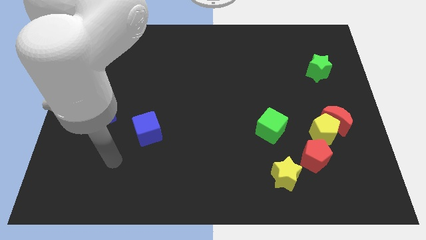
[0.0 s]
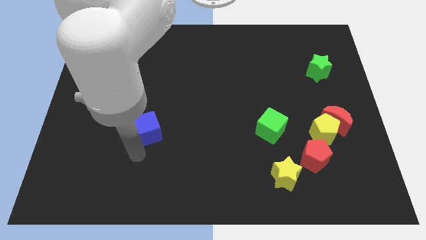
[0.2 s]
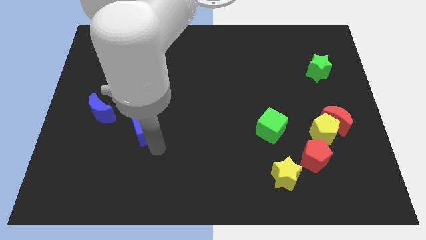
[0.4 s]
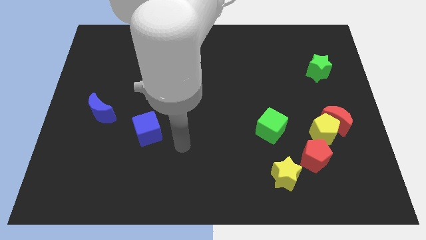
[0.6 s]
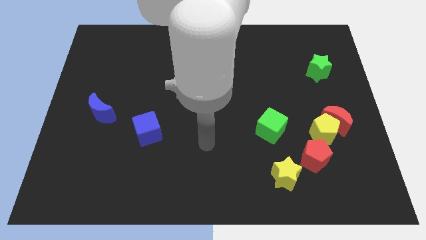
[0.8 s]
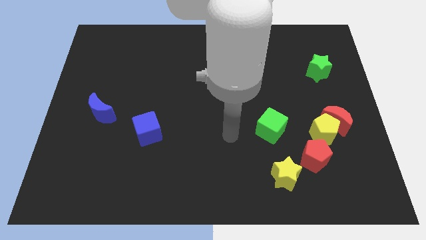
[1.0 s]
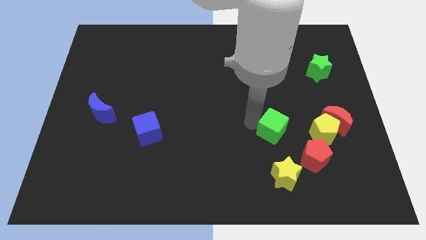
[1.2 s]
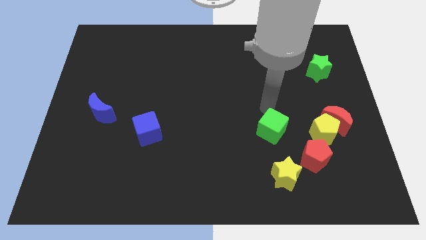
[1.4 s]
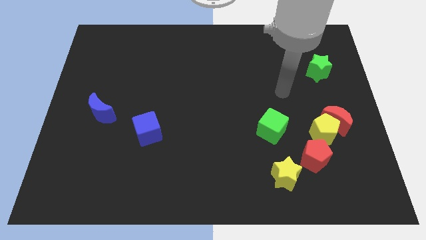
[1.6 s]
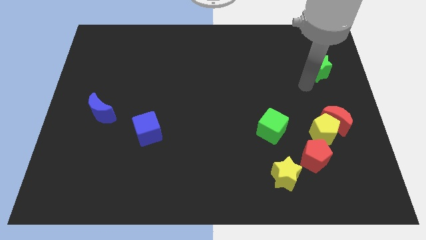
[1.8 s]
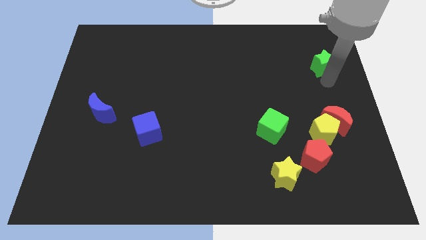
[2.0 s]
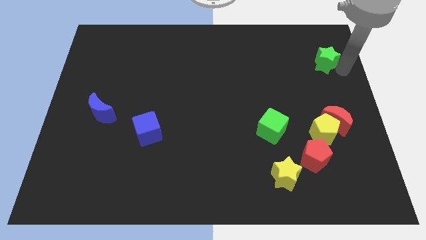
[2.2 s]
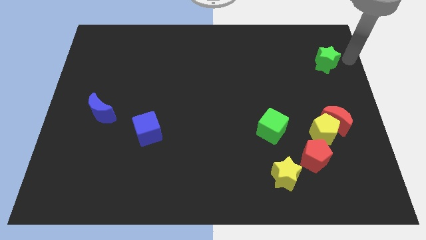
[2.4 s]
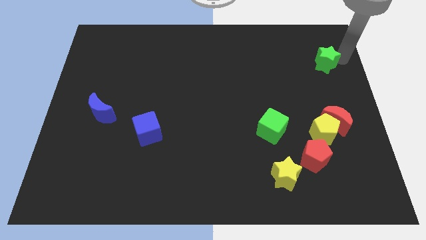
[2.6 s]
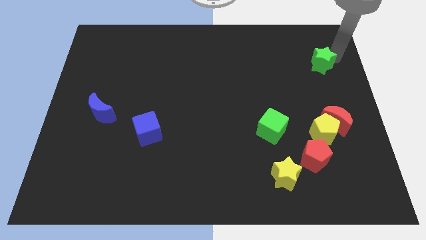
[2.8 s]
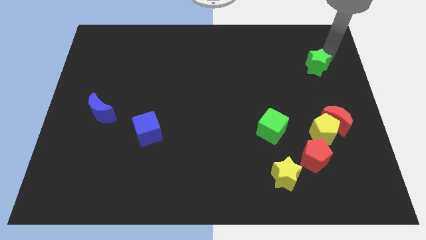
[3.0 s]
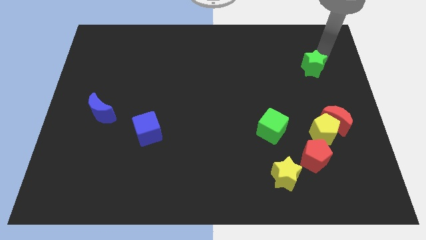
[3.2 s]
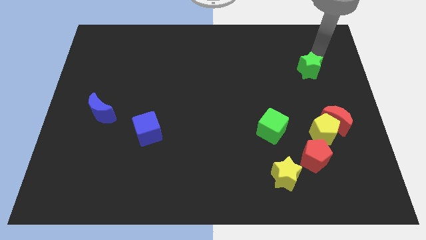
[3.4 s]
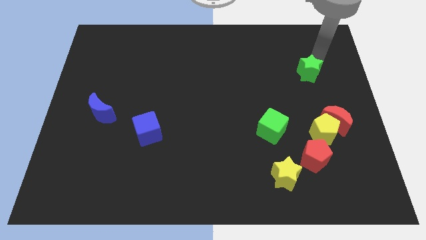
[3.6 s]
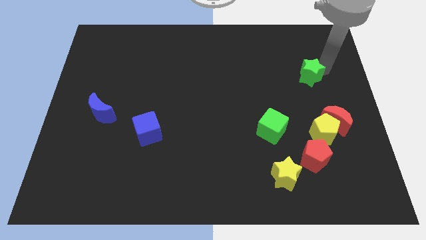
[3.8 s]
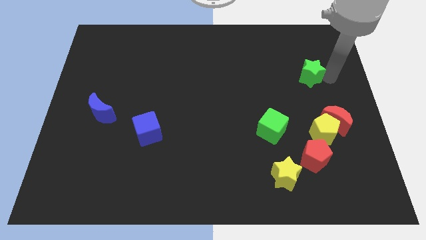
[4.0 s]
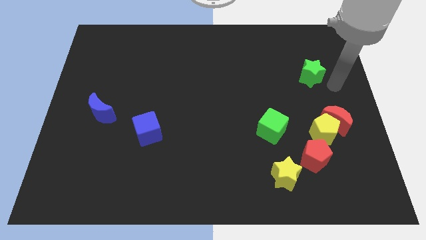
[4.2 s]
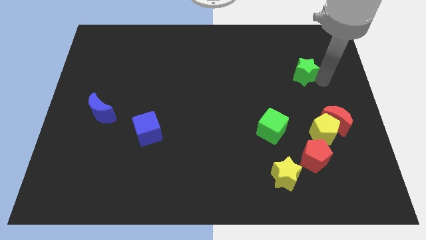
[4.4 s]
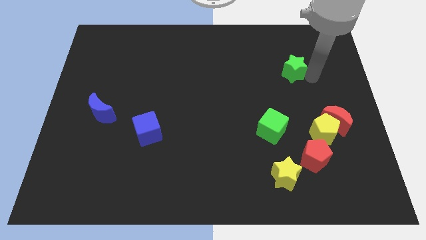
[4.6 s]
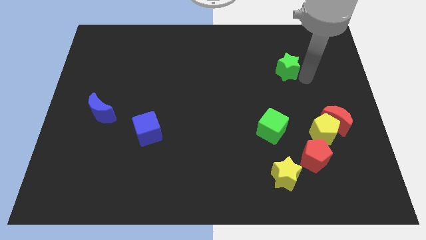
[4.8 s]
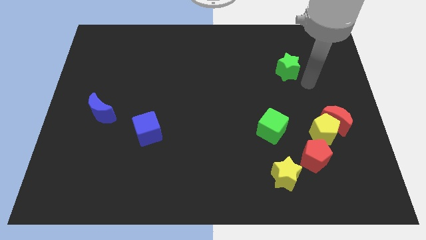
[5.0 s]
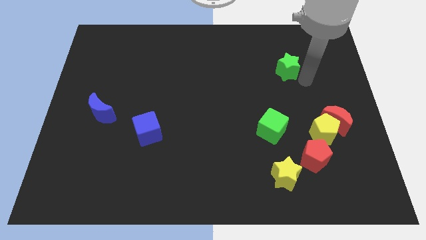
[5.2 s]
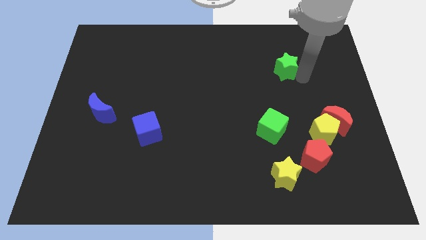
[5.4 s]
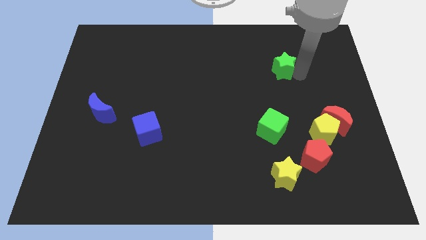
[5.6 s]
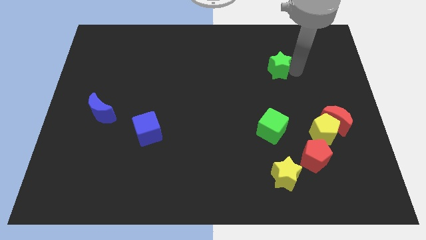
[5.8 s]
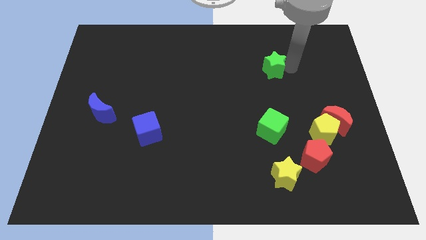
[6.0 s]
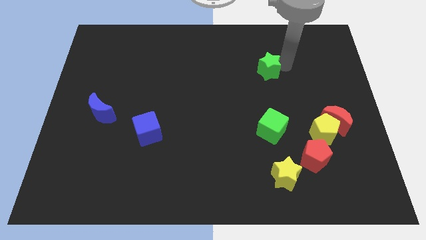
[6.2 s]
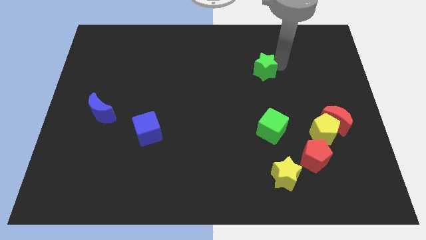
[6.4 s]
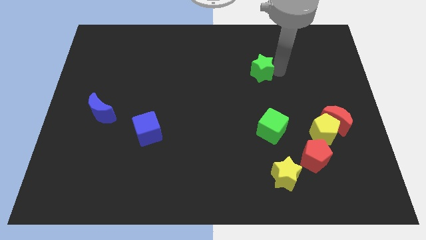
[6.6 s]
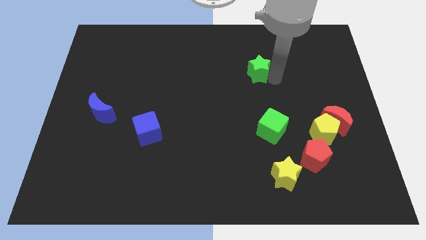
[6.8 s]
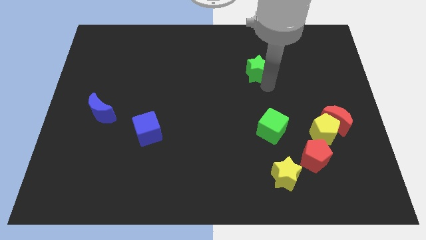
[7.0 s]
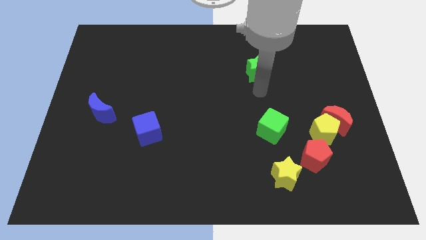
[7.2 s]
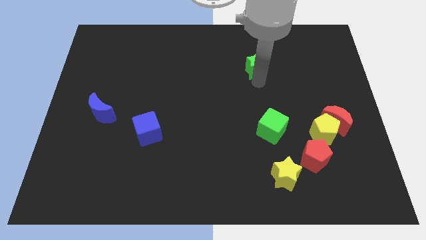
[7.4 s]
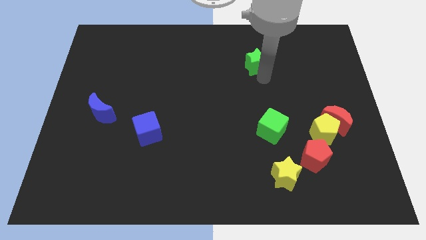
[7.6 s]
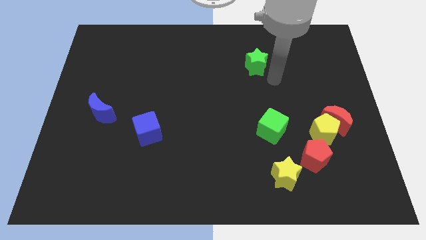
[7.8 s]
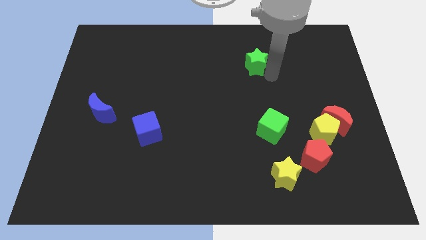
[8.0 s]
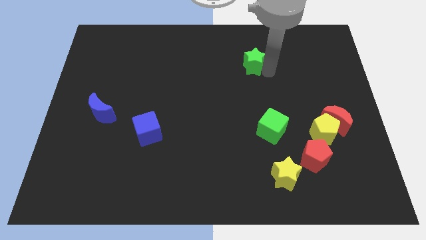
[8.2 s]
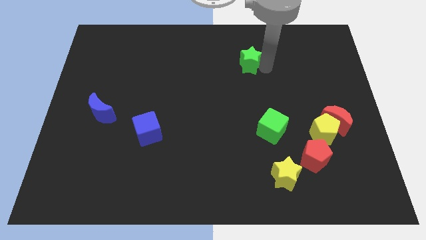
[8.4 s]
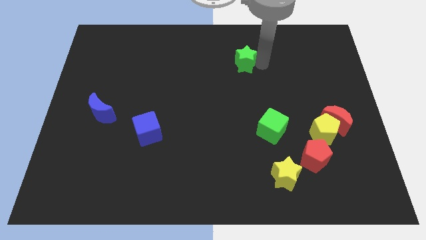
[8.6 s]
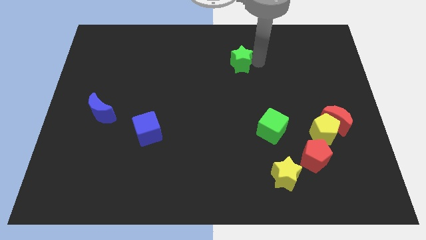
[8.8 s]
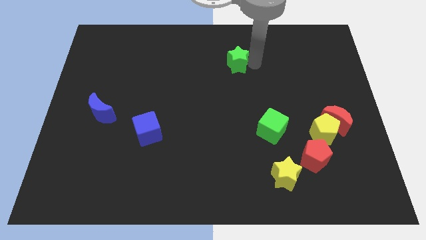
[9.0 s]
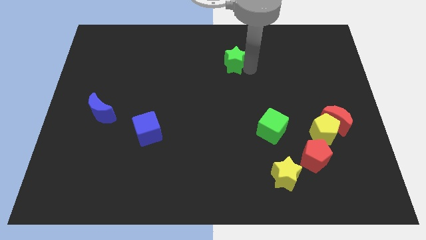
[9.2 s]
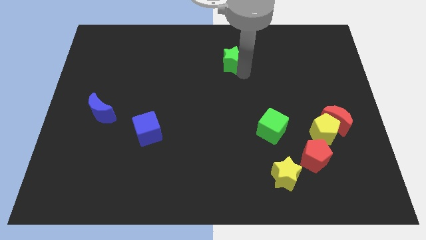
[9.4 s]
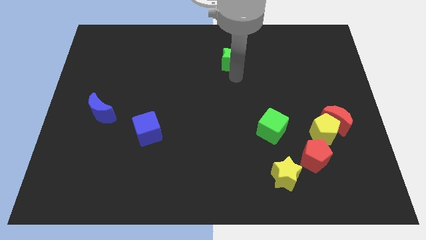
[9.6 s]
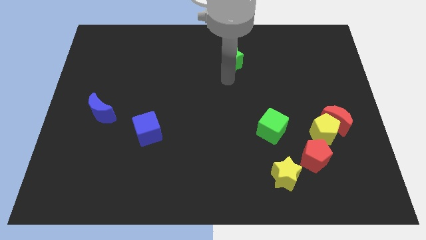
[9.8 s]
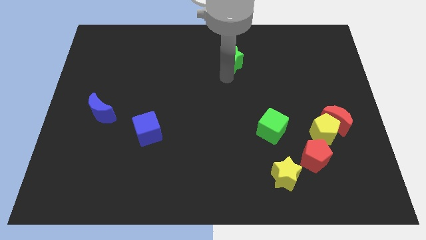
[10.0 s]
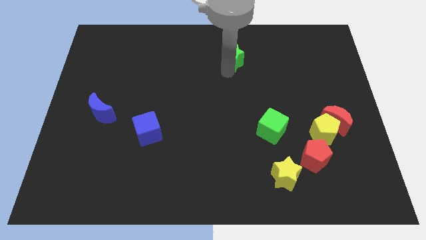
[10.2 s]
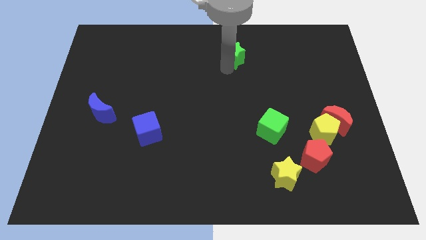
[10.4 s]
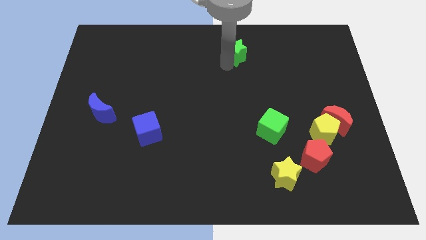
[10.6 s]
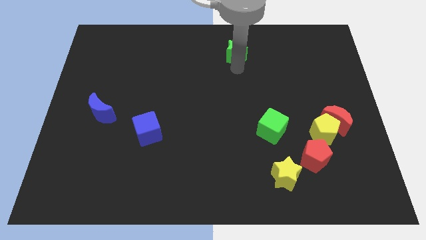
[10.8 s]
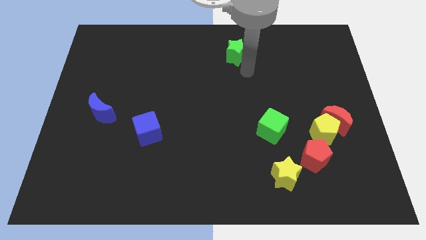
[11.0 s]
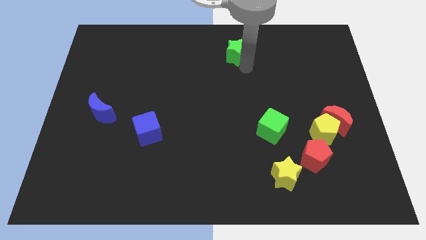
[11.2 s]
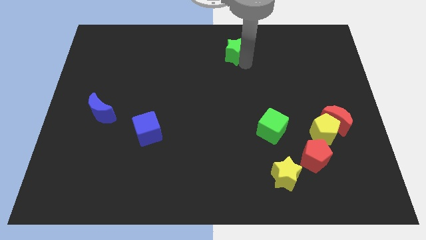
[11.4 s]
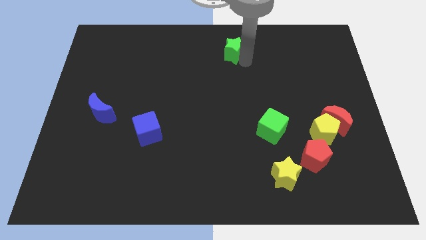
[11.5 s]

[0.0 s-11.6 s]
move the green star to the towards your base

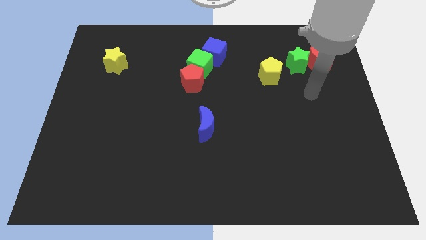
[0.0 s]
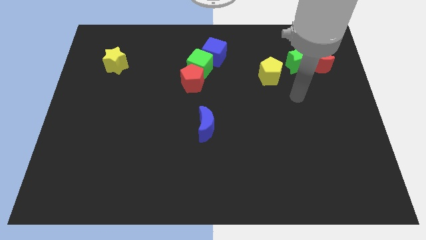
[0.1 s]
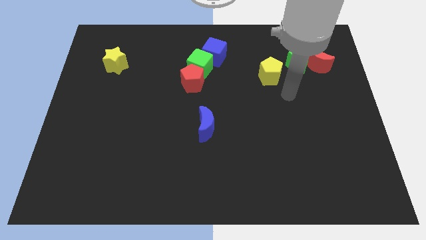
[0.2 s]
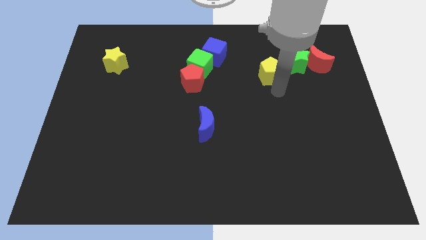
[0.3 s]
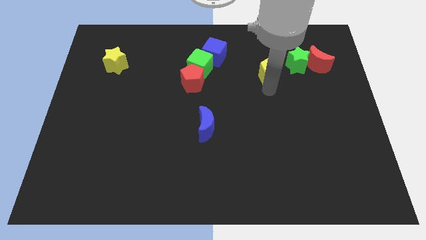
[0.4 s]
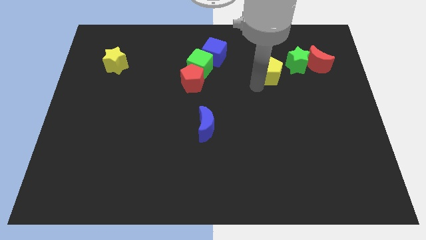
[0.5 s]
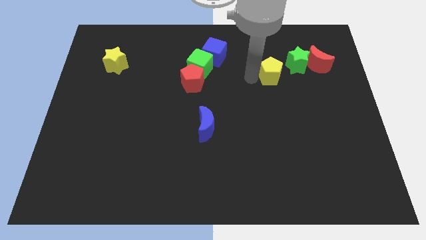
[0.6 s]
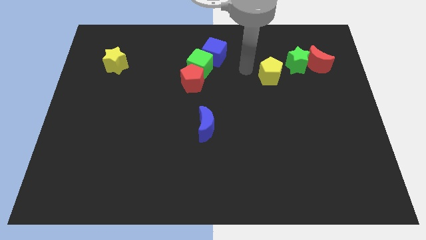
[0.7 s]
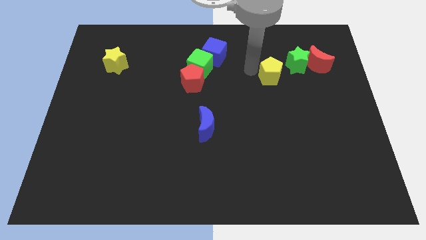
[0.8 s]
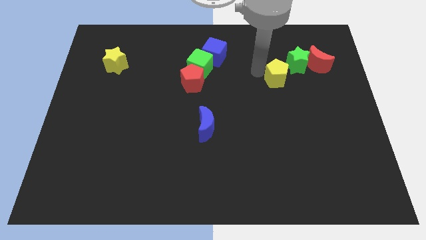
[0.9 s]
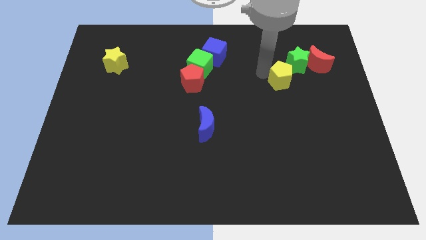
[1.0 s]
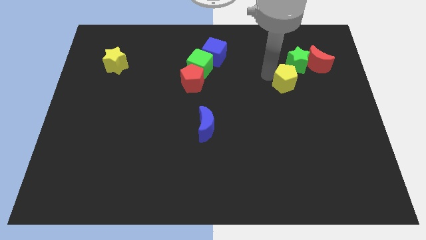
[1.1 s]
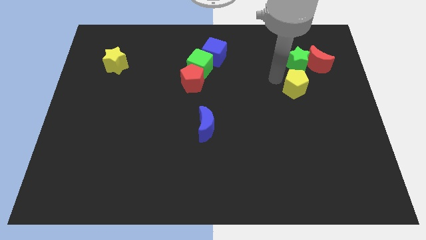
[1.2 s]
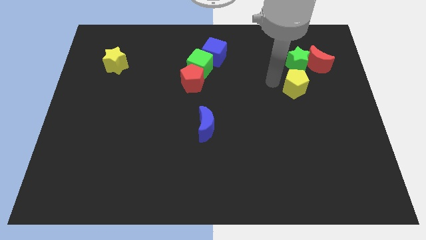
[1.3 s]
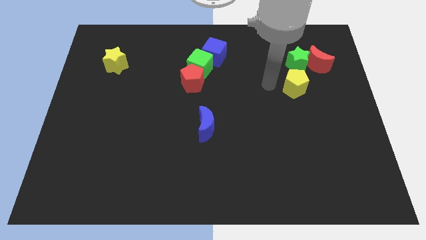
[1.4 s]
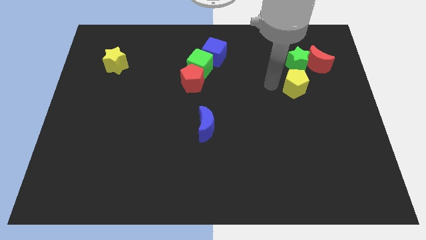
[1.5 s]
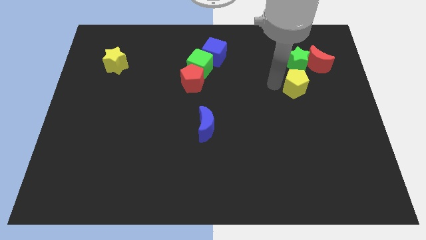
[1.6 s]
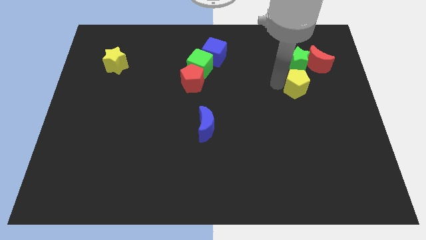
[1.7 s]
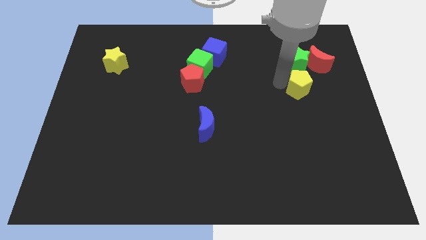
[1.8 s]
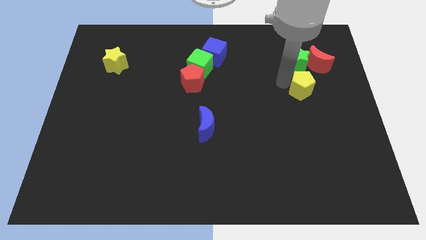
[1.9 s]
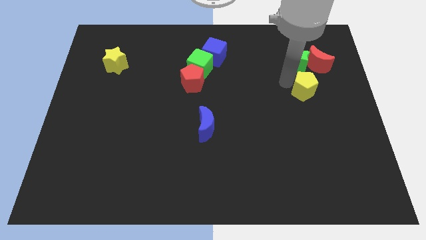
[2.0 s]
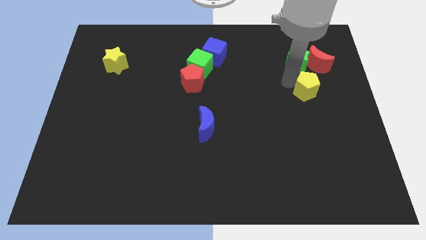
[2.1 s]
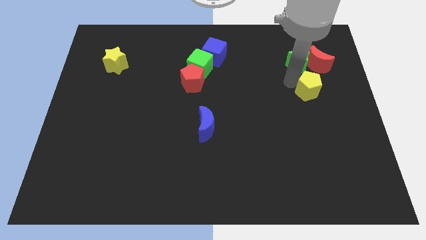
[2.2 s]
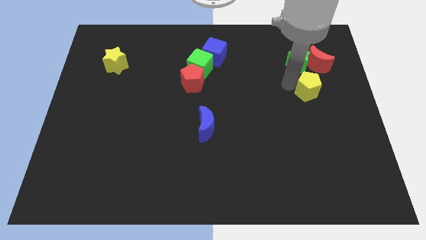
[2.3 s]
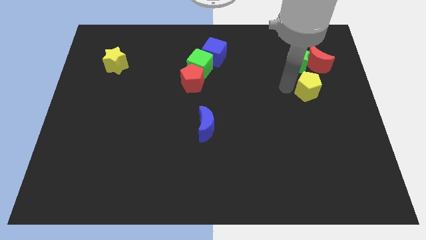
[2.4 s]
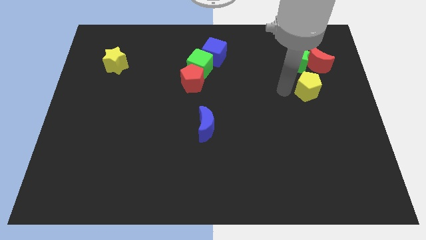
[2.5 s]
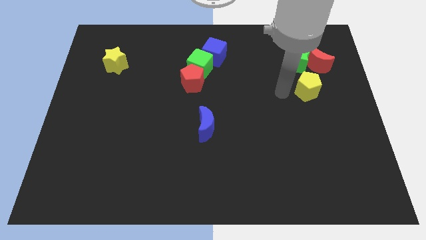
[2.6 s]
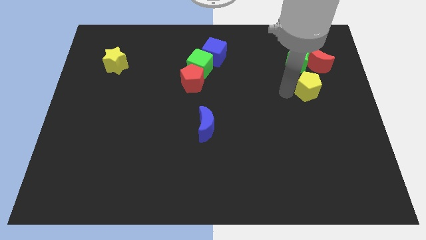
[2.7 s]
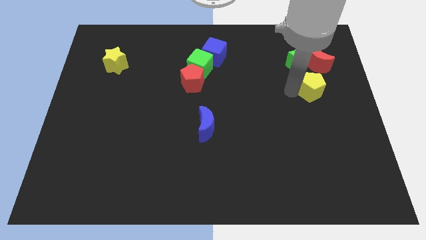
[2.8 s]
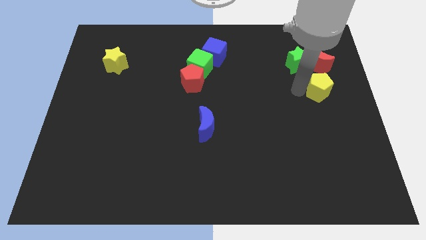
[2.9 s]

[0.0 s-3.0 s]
push the yellow pentagon to the center right
